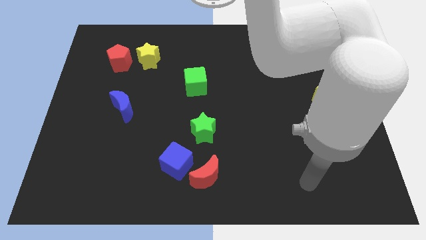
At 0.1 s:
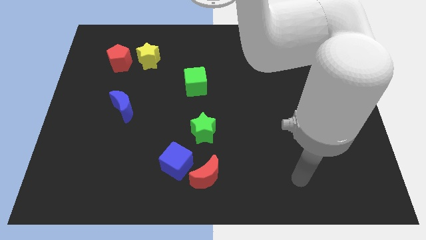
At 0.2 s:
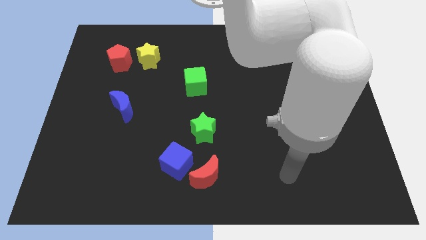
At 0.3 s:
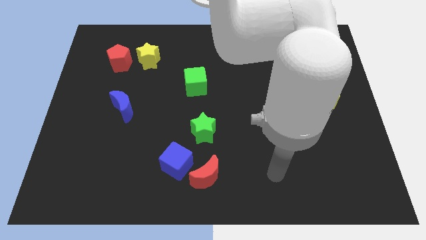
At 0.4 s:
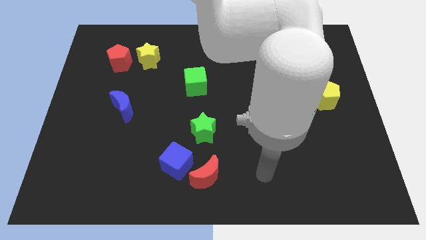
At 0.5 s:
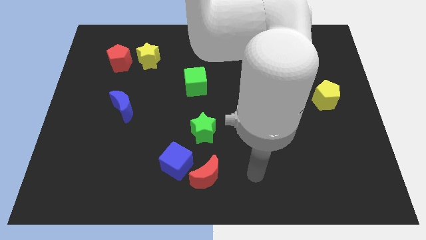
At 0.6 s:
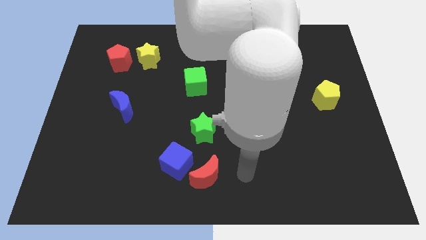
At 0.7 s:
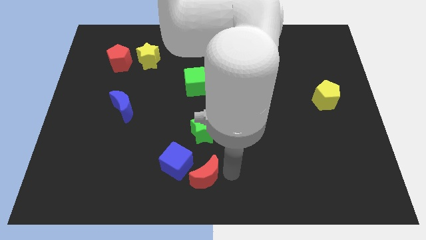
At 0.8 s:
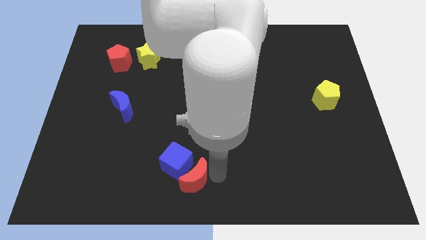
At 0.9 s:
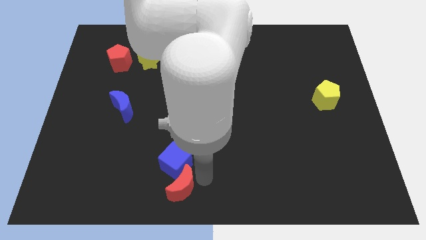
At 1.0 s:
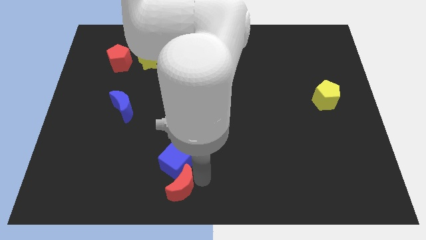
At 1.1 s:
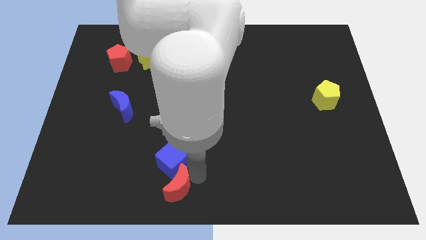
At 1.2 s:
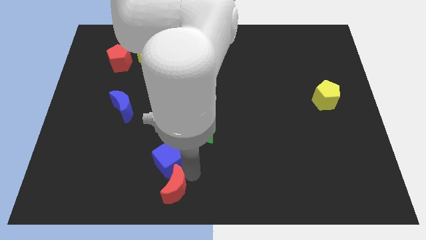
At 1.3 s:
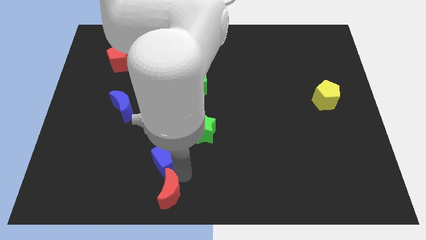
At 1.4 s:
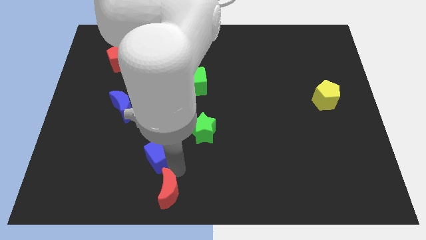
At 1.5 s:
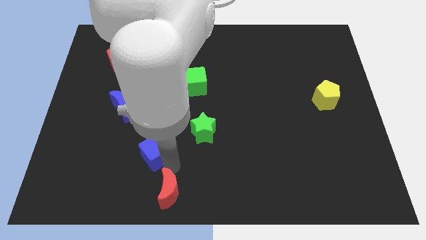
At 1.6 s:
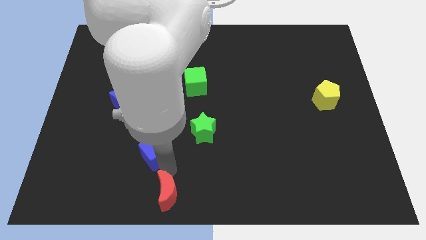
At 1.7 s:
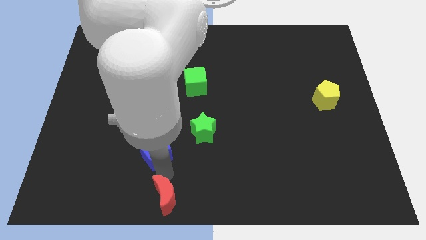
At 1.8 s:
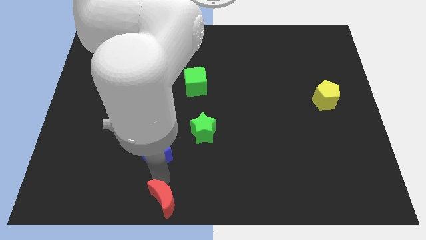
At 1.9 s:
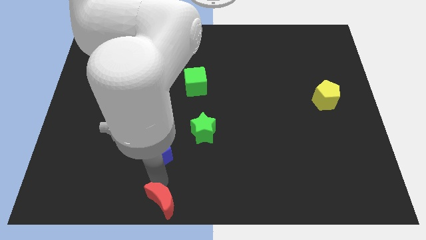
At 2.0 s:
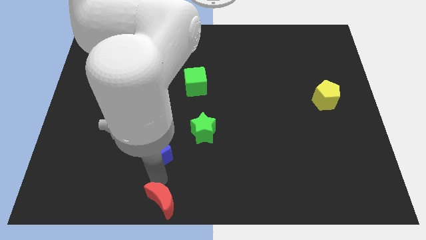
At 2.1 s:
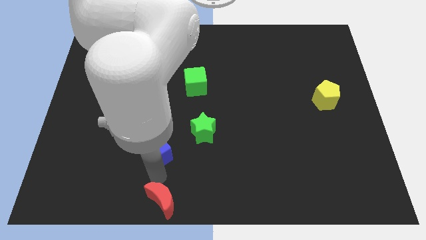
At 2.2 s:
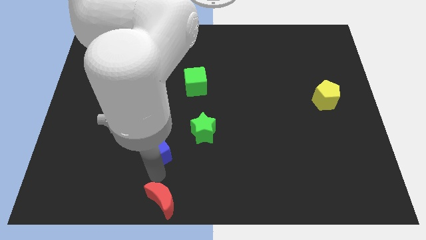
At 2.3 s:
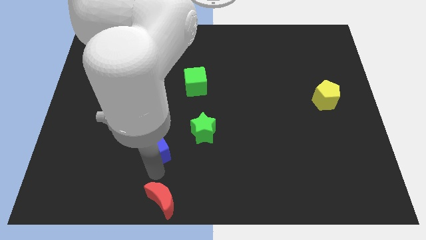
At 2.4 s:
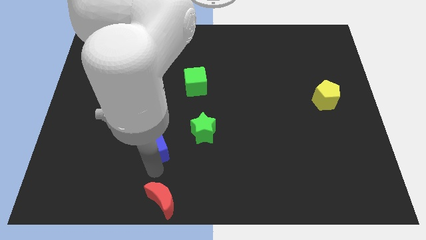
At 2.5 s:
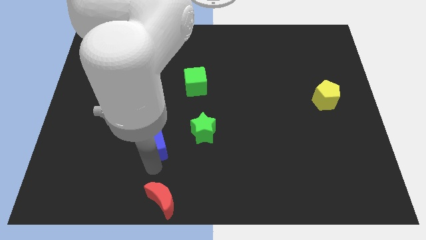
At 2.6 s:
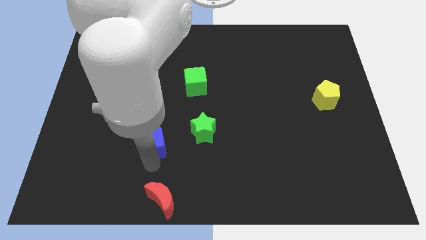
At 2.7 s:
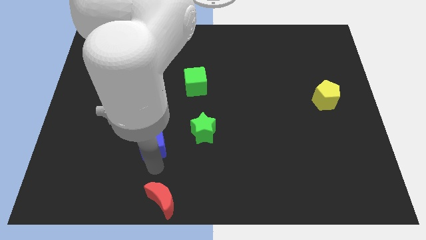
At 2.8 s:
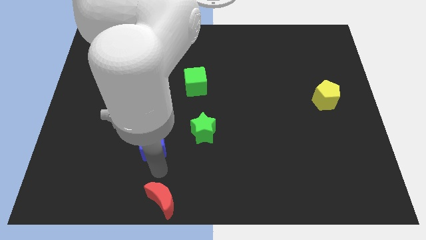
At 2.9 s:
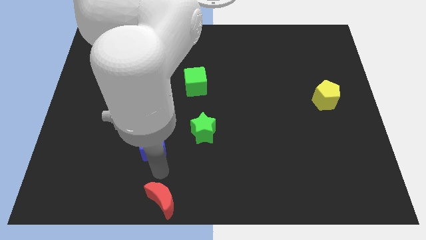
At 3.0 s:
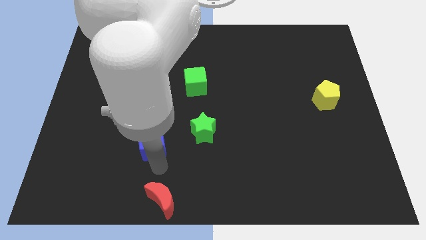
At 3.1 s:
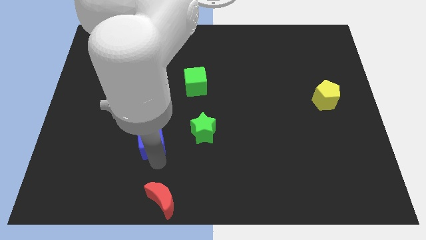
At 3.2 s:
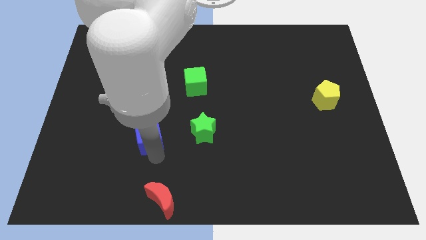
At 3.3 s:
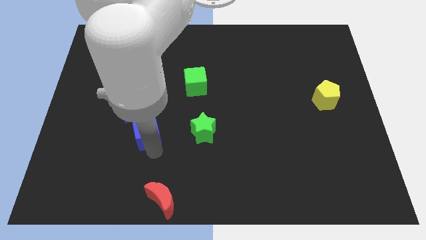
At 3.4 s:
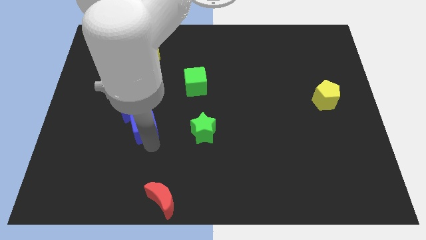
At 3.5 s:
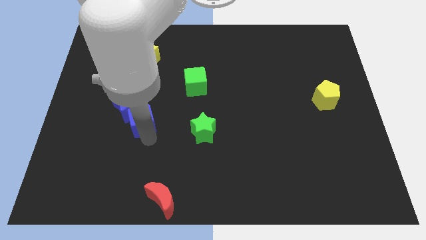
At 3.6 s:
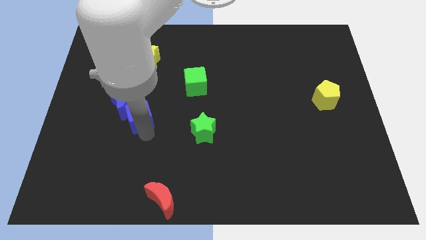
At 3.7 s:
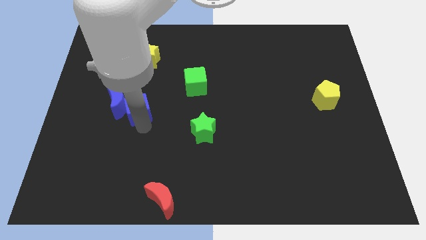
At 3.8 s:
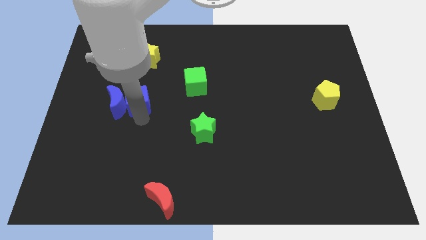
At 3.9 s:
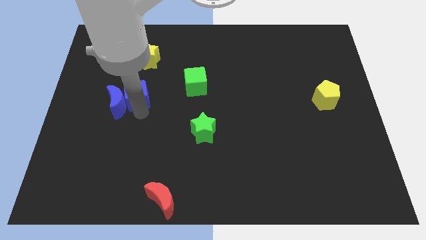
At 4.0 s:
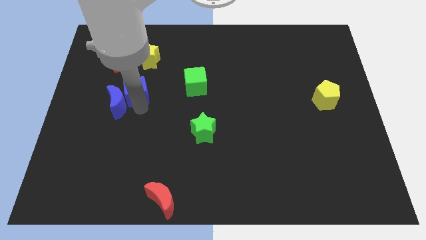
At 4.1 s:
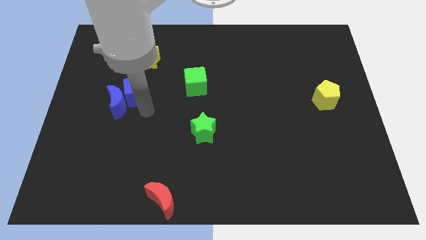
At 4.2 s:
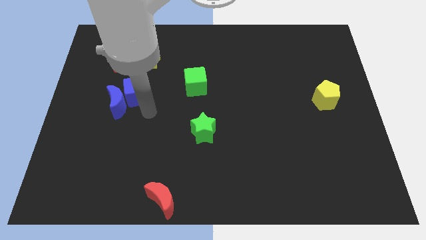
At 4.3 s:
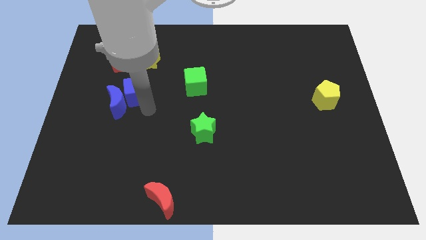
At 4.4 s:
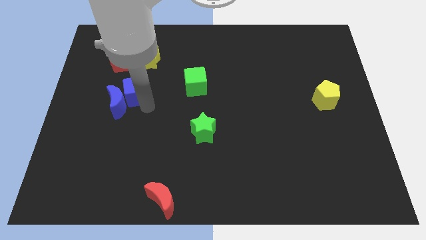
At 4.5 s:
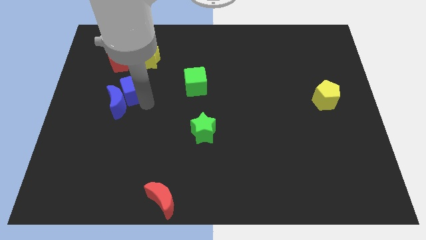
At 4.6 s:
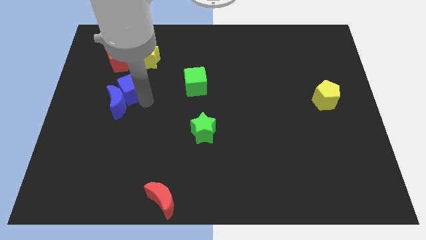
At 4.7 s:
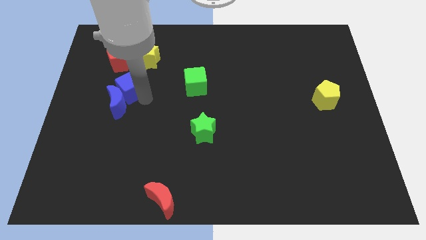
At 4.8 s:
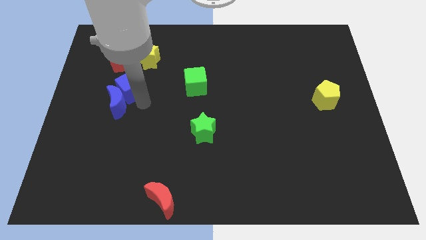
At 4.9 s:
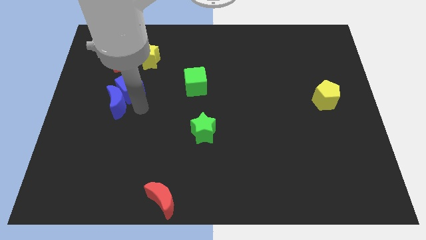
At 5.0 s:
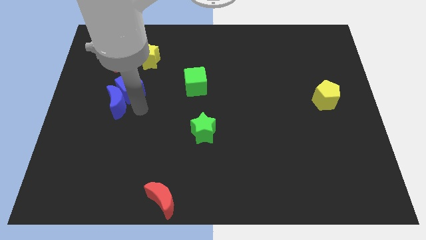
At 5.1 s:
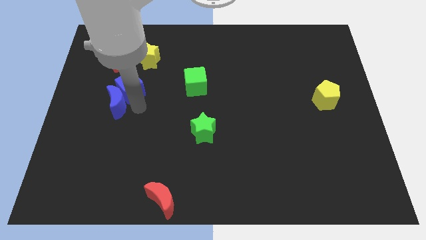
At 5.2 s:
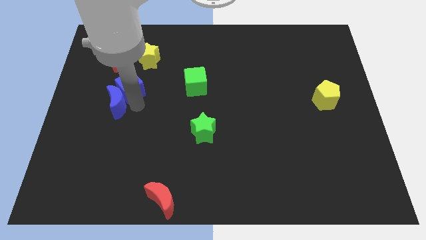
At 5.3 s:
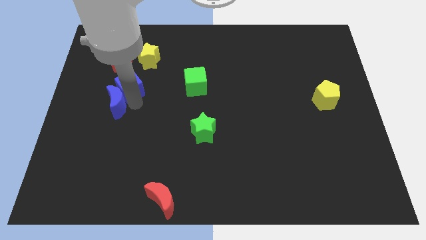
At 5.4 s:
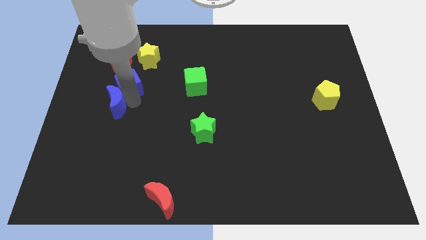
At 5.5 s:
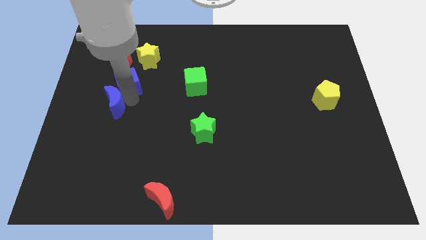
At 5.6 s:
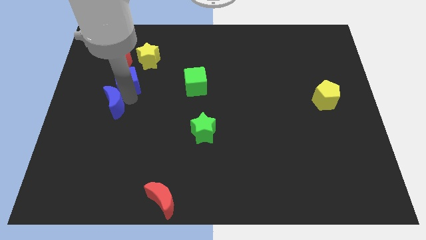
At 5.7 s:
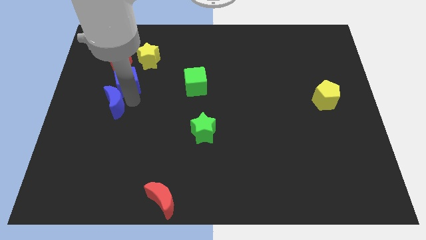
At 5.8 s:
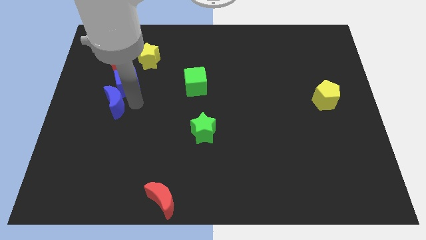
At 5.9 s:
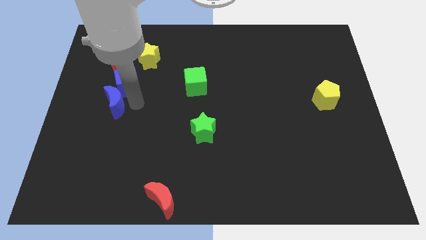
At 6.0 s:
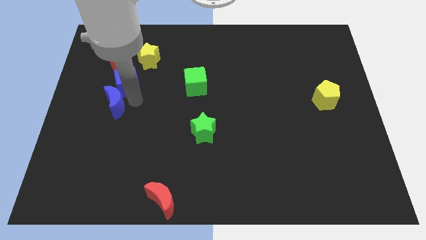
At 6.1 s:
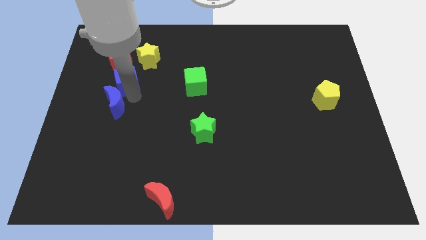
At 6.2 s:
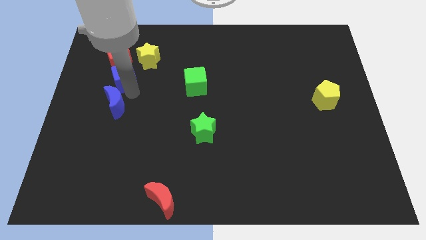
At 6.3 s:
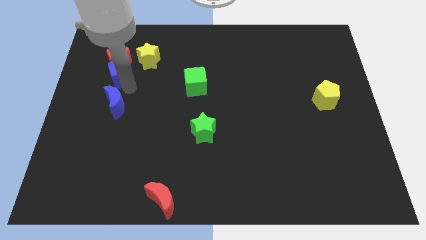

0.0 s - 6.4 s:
put the blue cube towards the red pentagon
